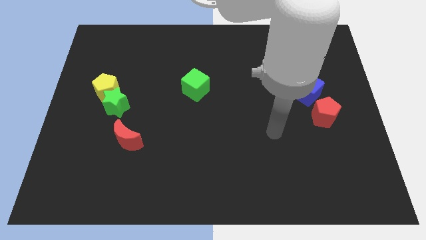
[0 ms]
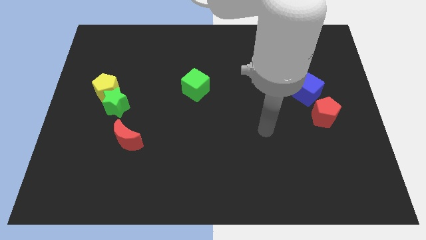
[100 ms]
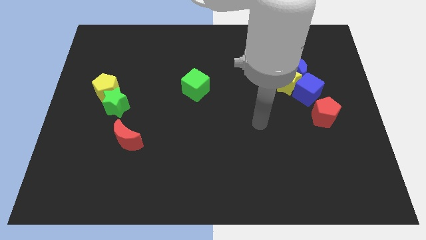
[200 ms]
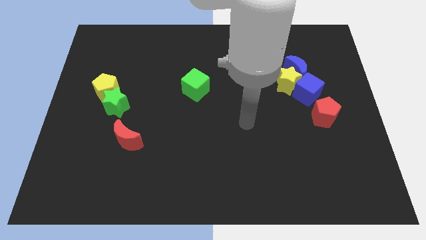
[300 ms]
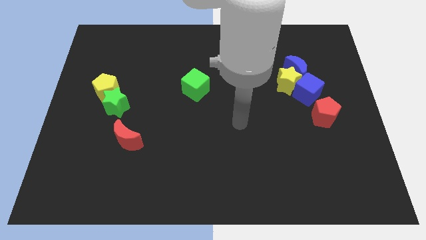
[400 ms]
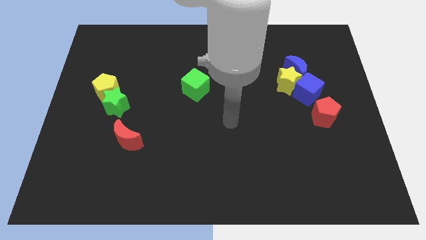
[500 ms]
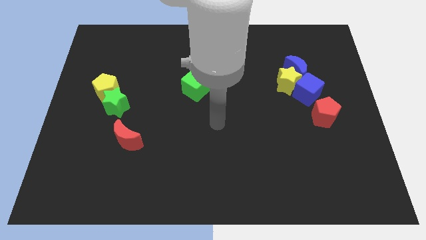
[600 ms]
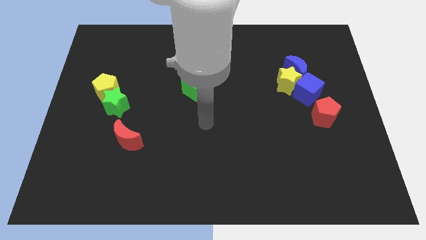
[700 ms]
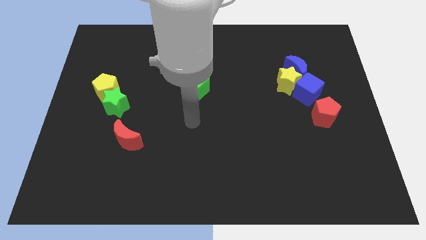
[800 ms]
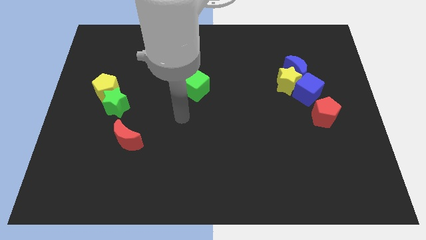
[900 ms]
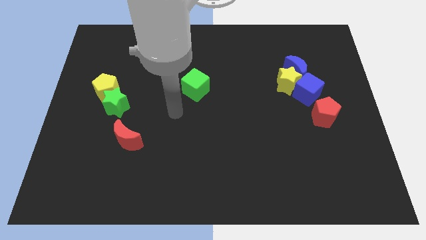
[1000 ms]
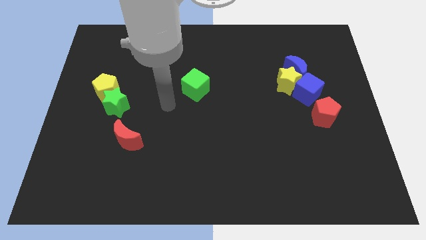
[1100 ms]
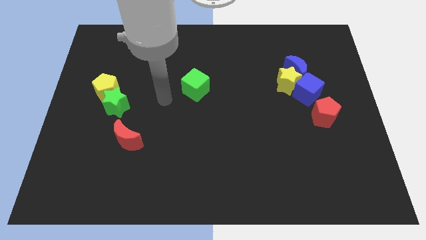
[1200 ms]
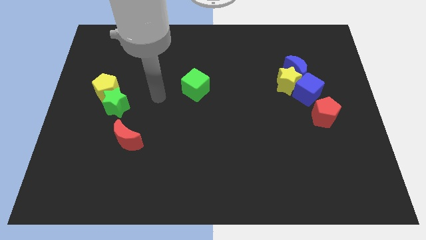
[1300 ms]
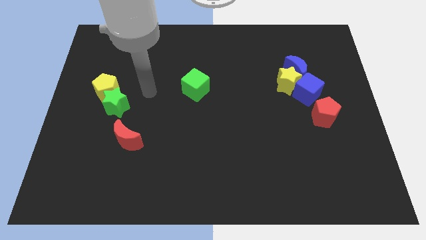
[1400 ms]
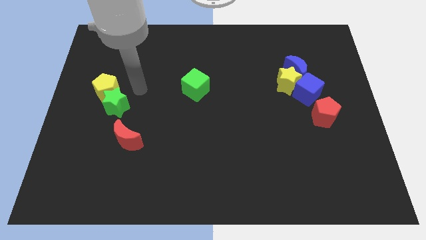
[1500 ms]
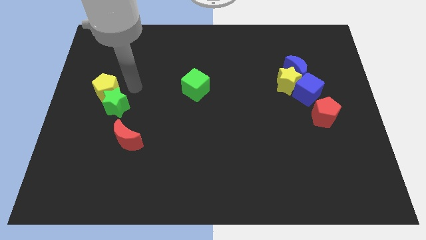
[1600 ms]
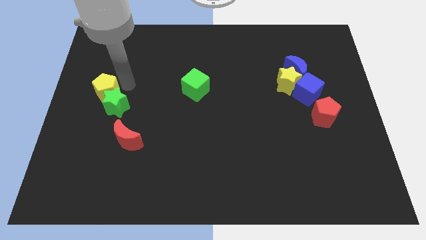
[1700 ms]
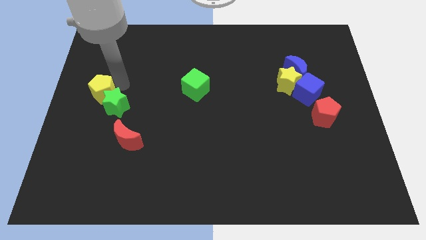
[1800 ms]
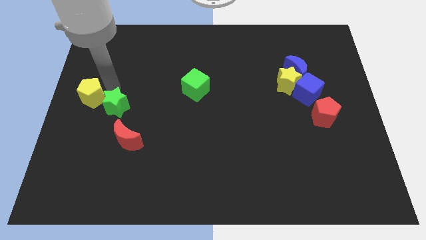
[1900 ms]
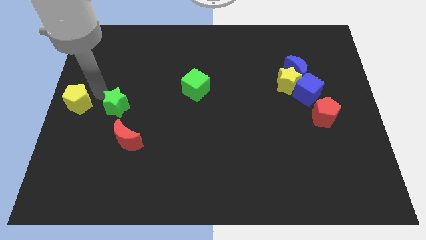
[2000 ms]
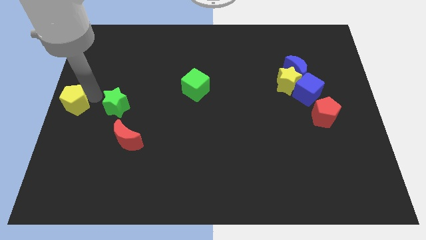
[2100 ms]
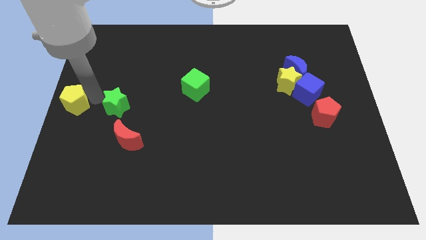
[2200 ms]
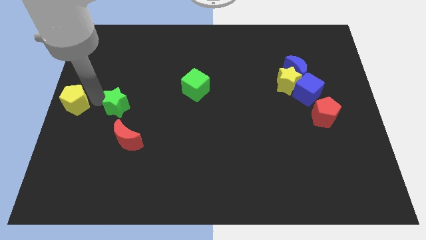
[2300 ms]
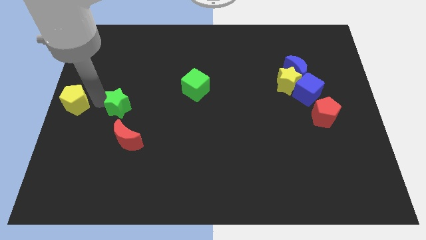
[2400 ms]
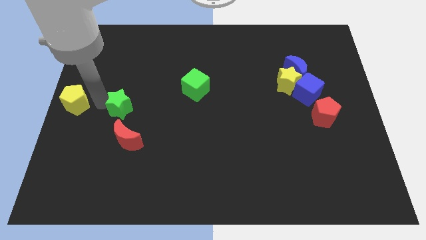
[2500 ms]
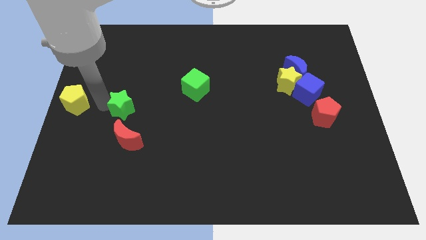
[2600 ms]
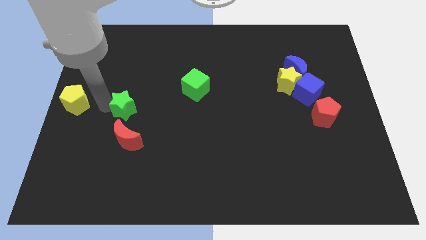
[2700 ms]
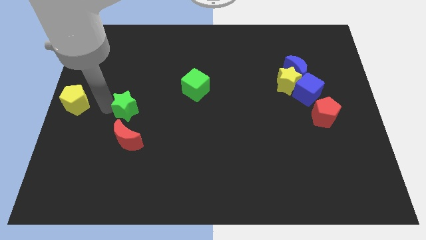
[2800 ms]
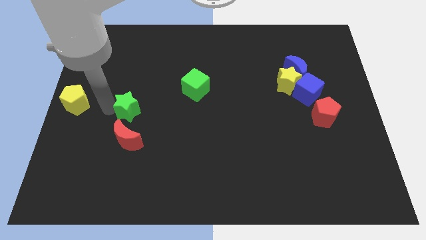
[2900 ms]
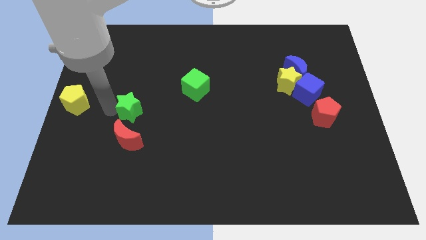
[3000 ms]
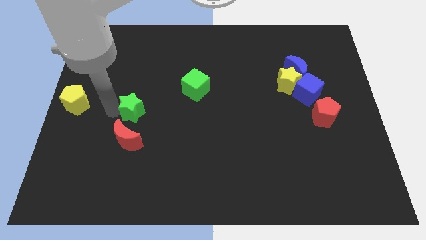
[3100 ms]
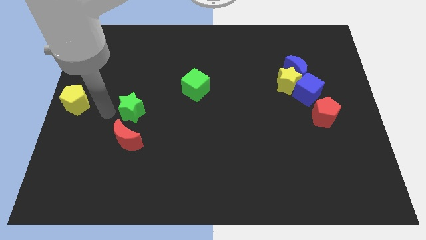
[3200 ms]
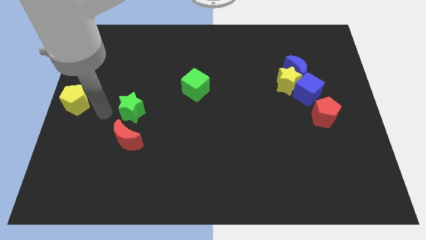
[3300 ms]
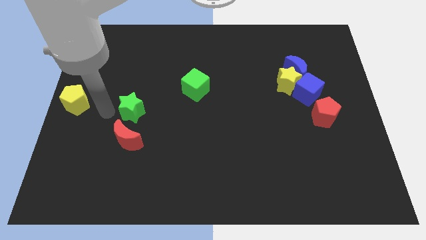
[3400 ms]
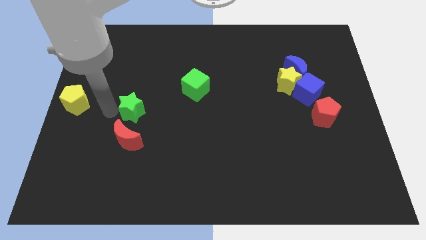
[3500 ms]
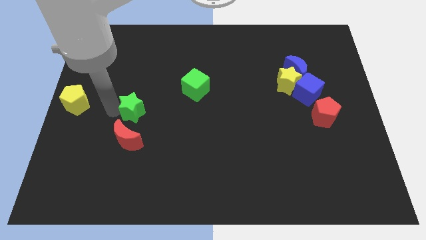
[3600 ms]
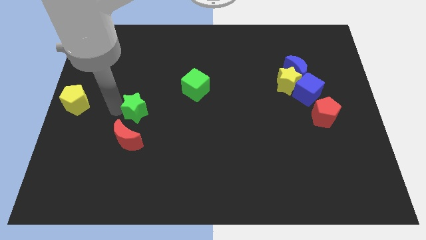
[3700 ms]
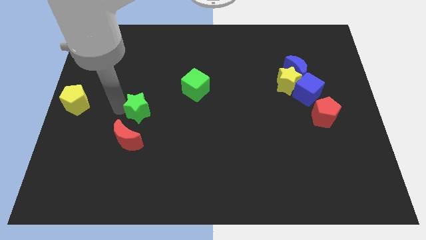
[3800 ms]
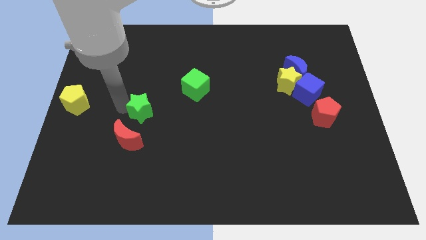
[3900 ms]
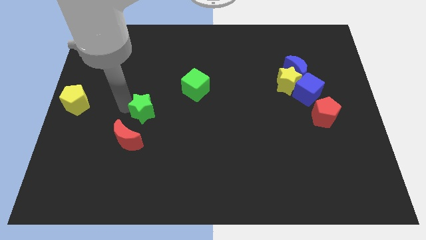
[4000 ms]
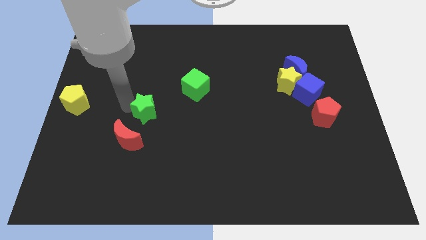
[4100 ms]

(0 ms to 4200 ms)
slightly push the green star to the right

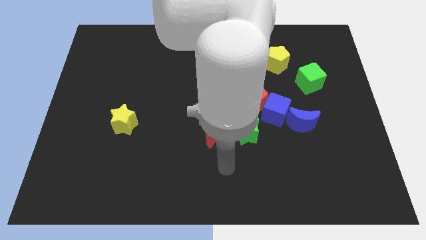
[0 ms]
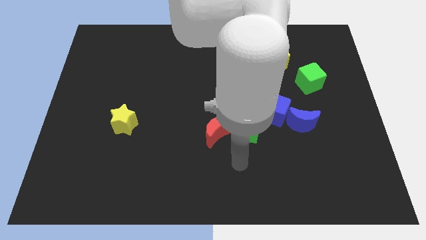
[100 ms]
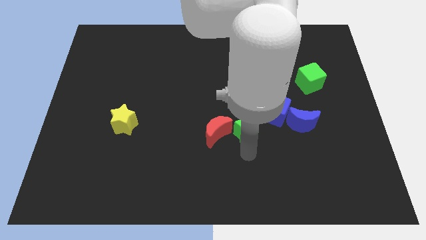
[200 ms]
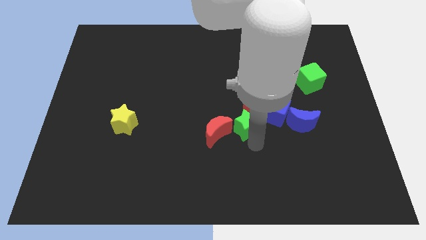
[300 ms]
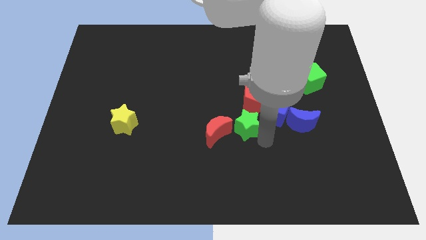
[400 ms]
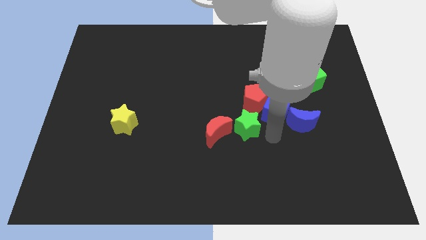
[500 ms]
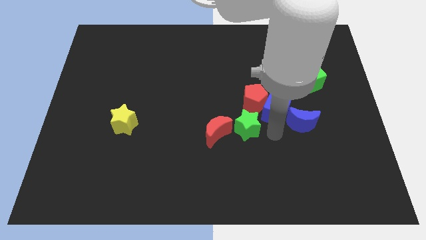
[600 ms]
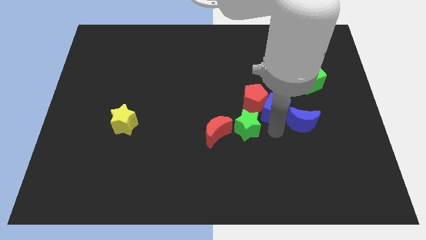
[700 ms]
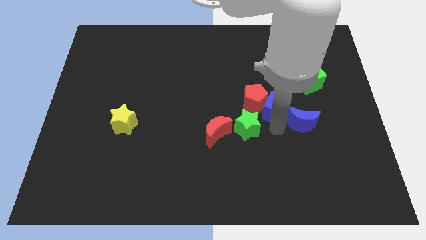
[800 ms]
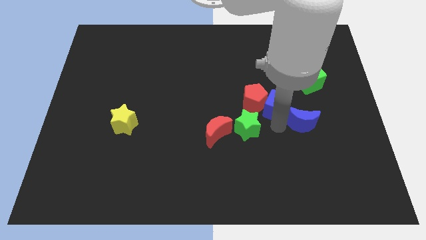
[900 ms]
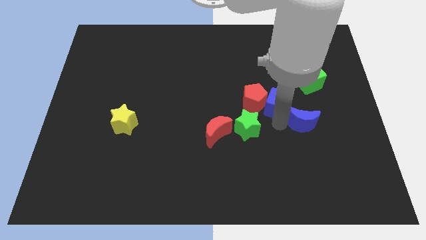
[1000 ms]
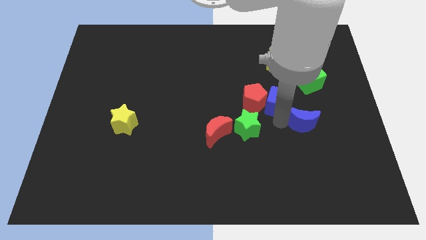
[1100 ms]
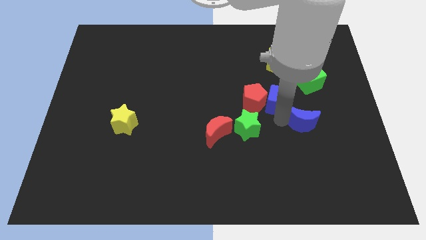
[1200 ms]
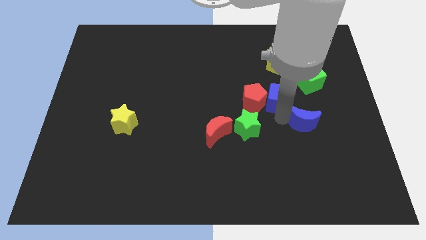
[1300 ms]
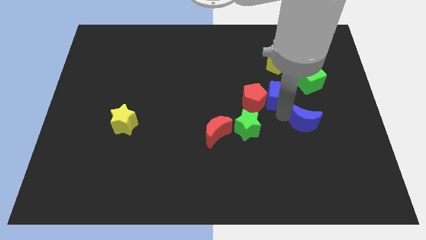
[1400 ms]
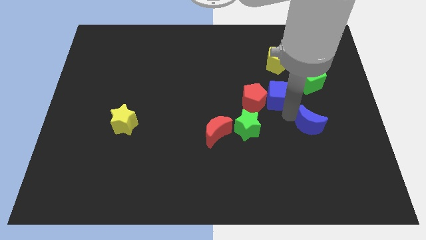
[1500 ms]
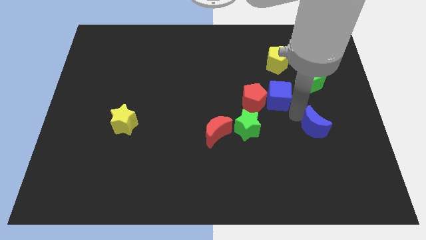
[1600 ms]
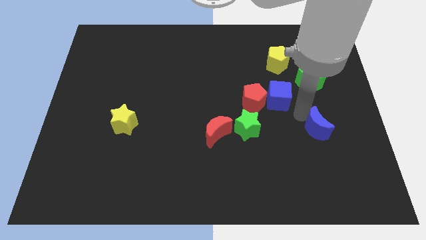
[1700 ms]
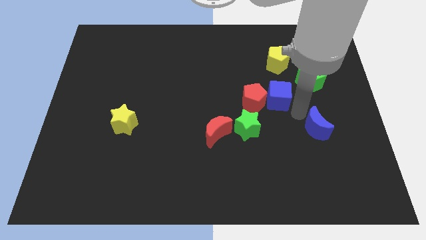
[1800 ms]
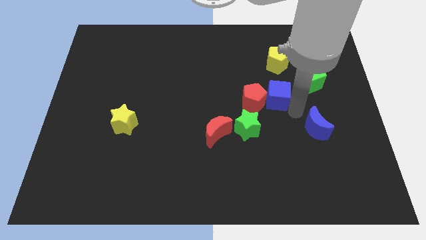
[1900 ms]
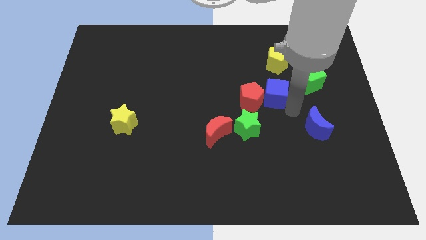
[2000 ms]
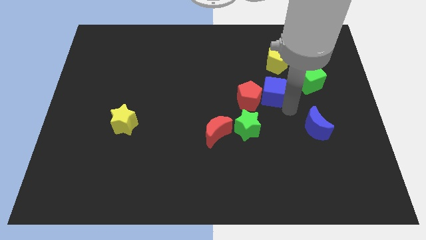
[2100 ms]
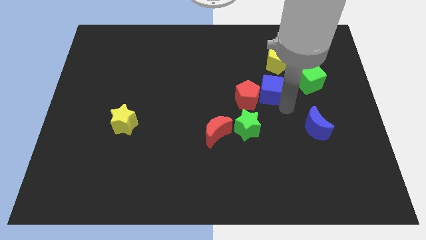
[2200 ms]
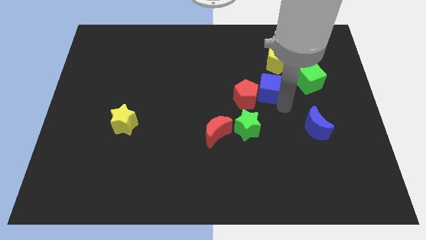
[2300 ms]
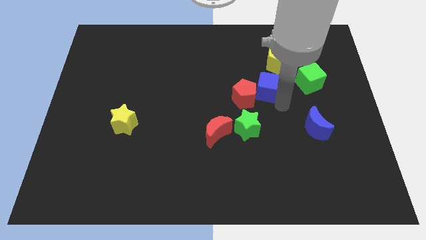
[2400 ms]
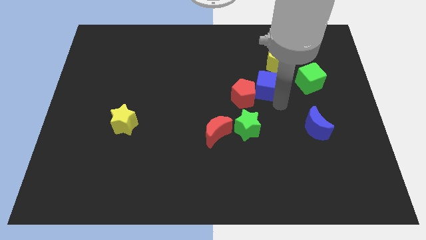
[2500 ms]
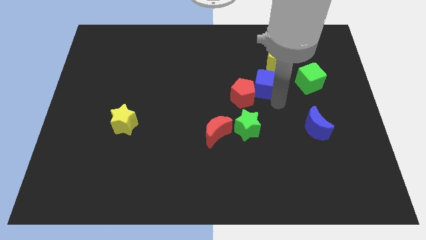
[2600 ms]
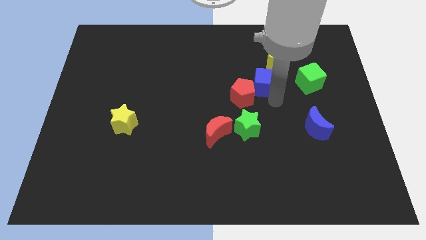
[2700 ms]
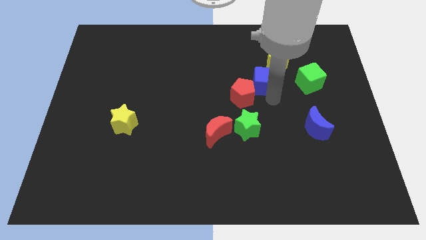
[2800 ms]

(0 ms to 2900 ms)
slightly move the blue cube diagonally up and left

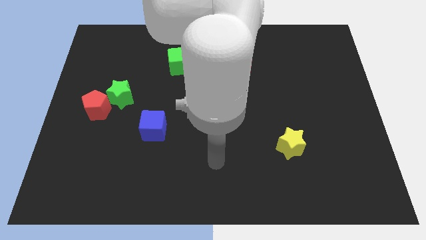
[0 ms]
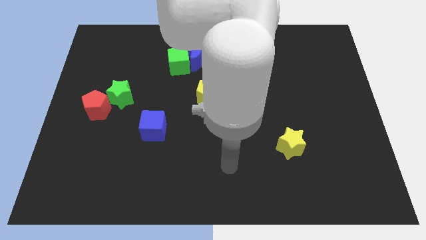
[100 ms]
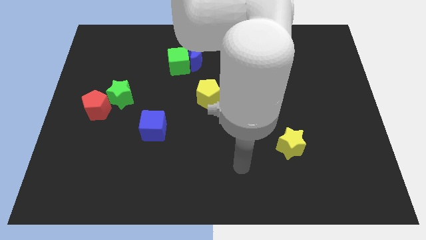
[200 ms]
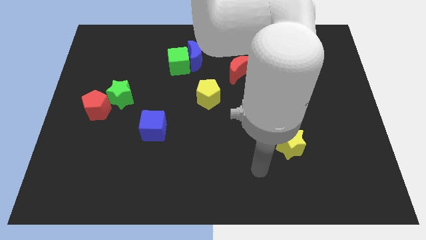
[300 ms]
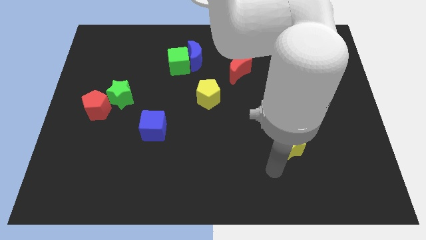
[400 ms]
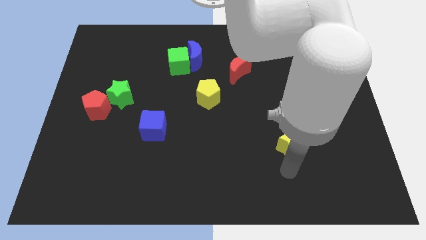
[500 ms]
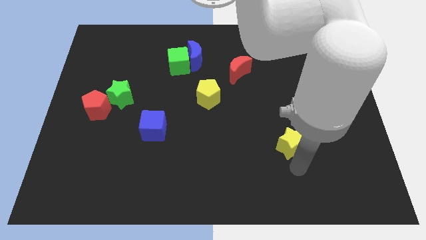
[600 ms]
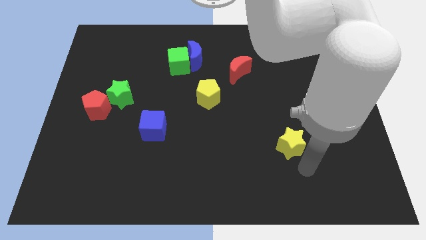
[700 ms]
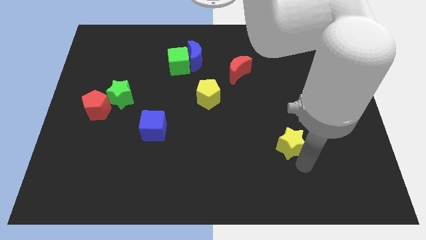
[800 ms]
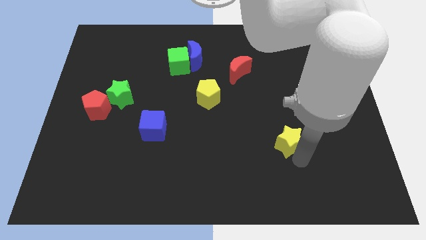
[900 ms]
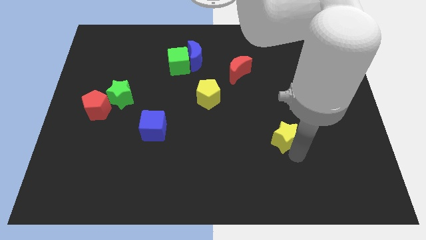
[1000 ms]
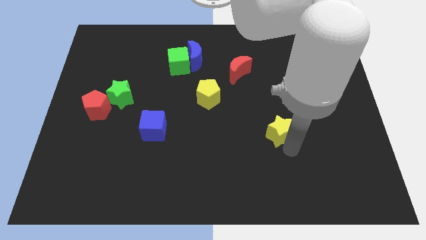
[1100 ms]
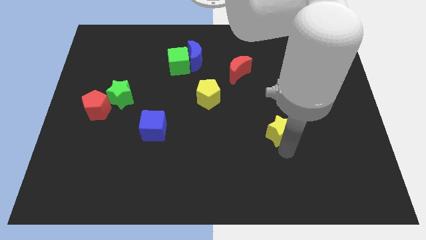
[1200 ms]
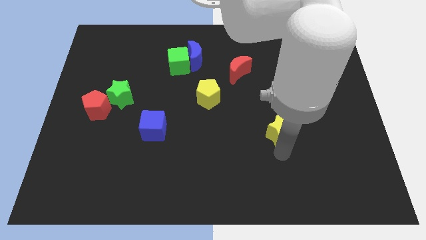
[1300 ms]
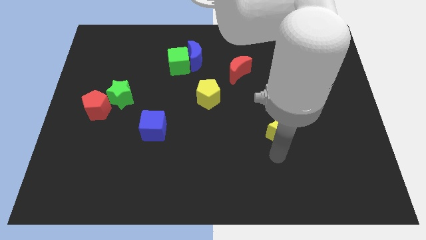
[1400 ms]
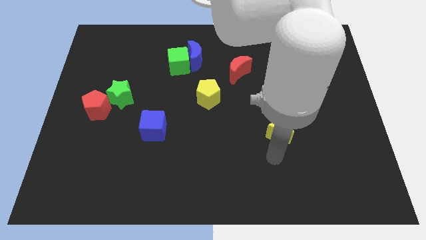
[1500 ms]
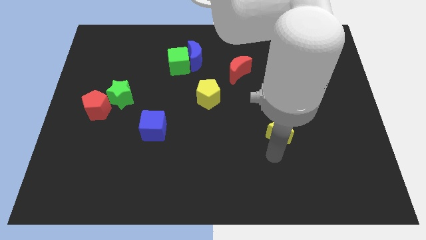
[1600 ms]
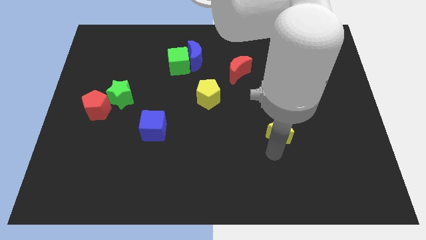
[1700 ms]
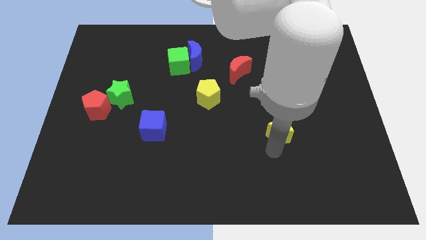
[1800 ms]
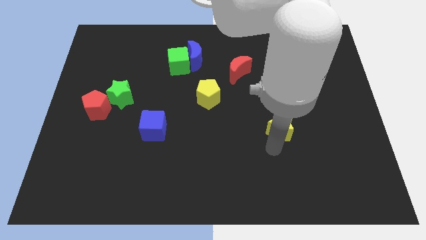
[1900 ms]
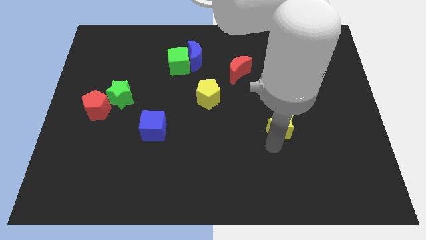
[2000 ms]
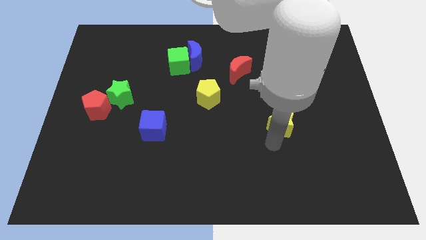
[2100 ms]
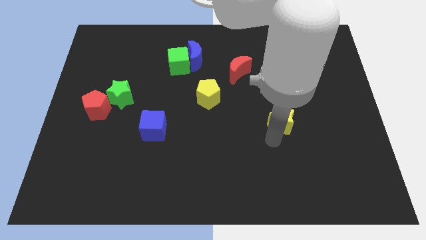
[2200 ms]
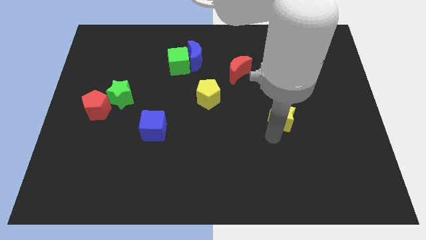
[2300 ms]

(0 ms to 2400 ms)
slightly push the yellow star up
